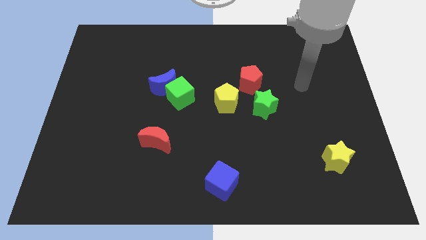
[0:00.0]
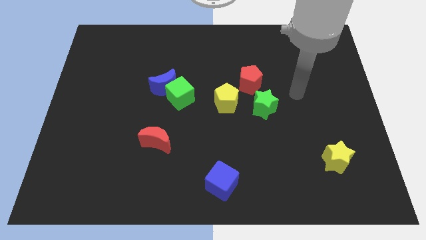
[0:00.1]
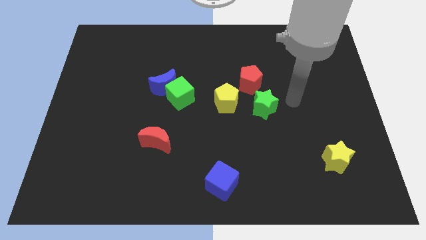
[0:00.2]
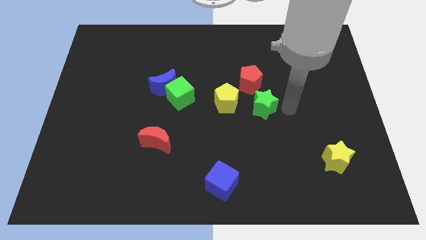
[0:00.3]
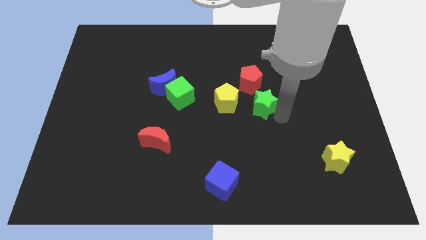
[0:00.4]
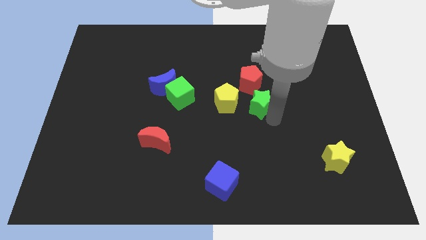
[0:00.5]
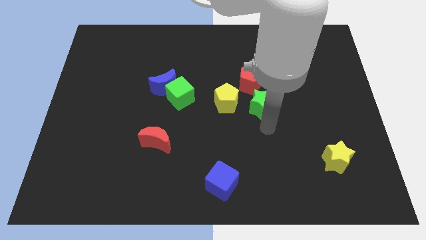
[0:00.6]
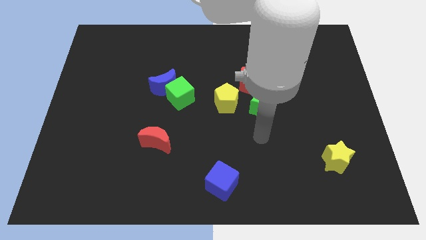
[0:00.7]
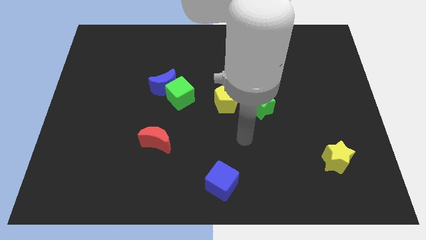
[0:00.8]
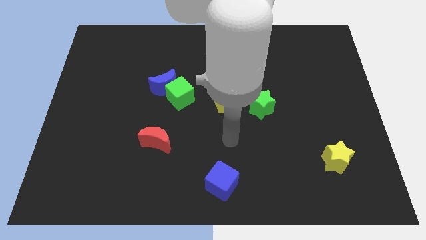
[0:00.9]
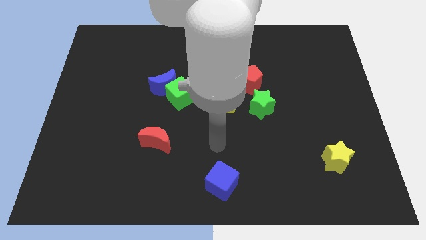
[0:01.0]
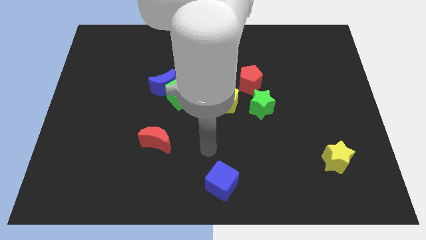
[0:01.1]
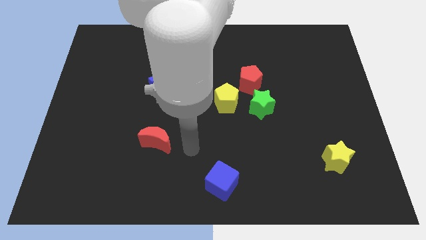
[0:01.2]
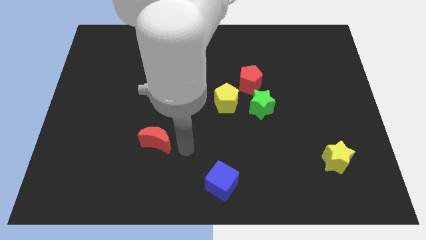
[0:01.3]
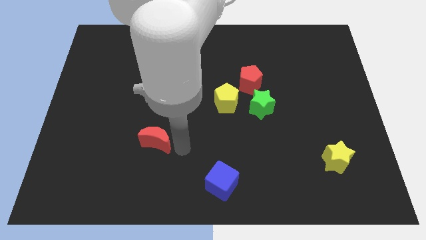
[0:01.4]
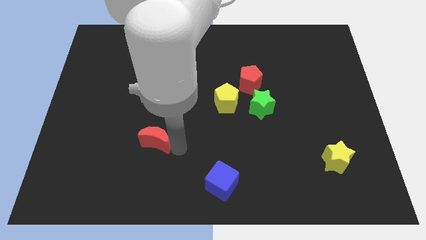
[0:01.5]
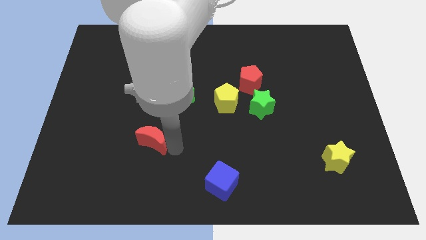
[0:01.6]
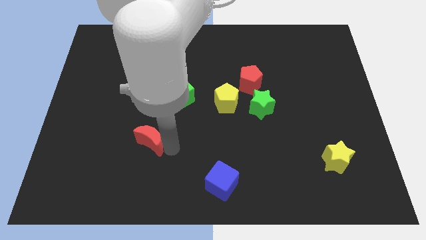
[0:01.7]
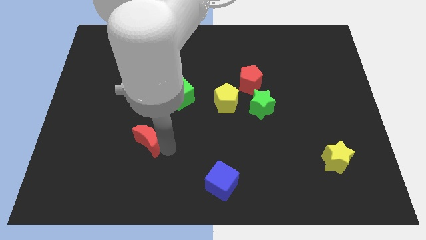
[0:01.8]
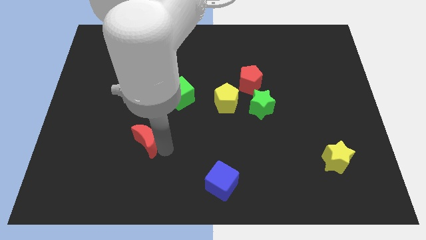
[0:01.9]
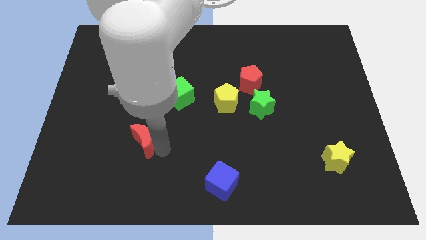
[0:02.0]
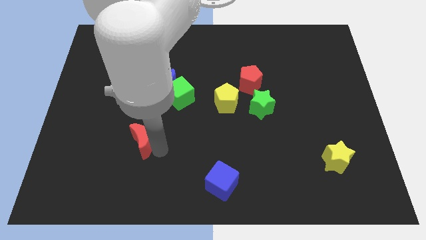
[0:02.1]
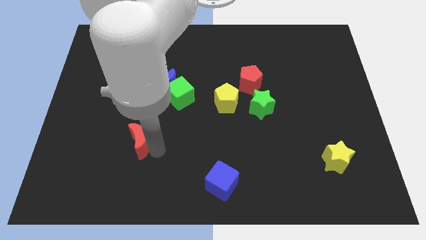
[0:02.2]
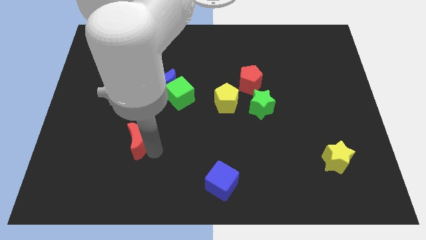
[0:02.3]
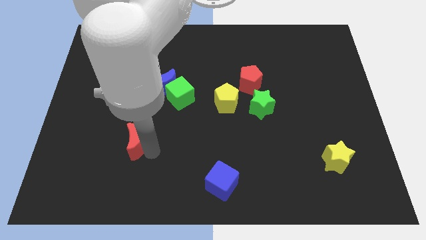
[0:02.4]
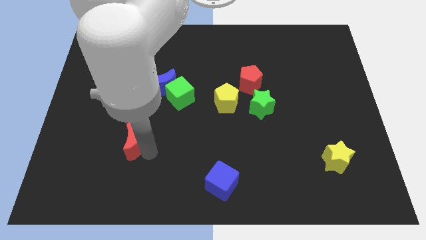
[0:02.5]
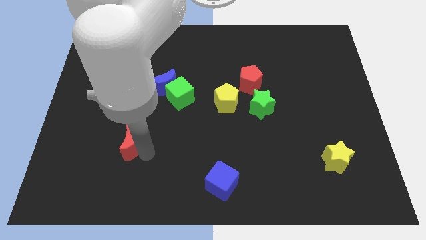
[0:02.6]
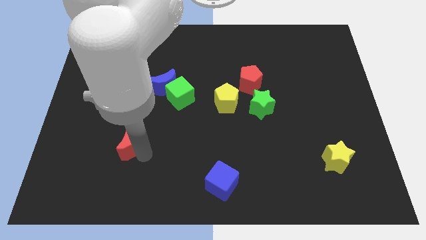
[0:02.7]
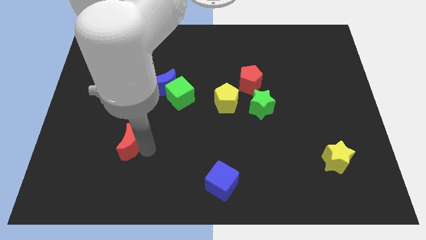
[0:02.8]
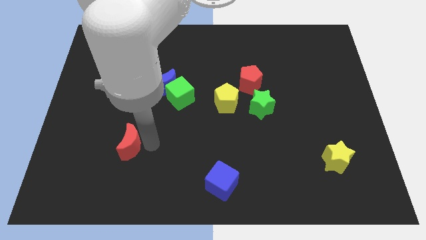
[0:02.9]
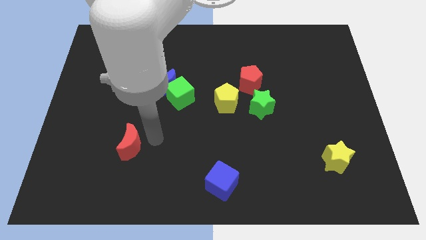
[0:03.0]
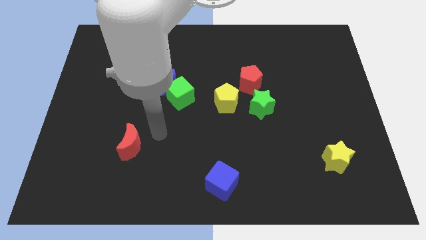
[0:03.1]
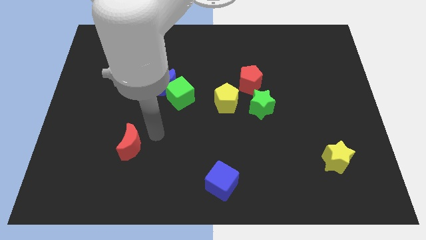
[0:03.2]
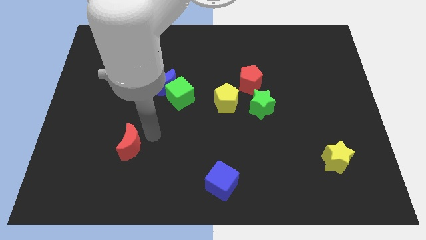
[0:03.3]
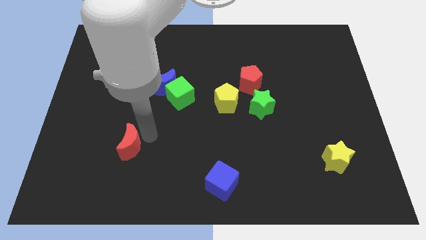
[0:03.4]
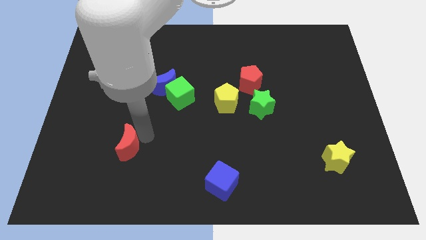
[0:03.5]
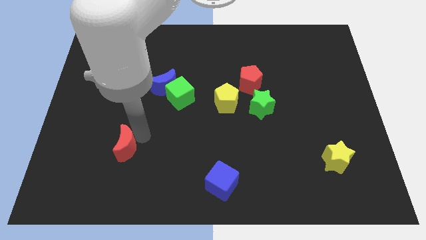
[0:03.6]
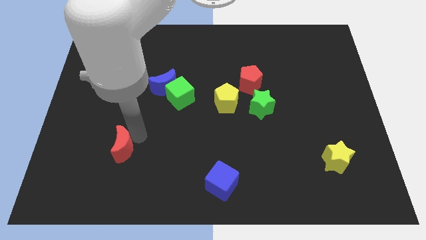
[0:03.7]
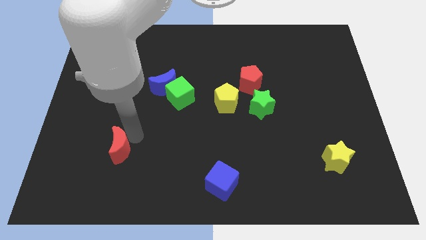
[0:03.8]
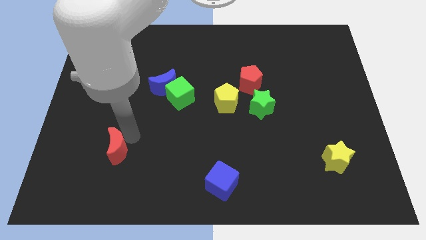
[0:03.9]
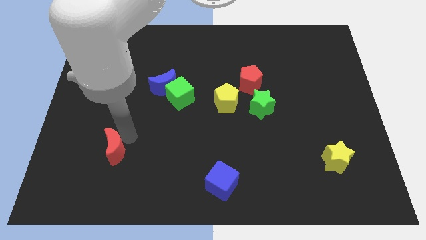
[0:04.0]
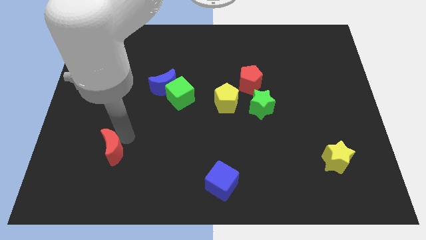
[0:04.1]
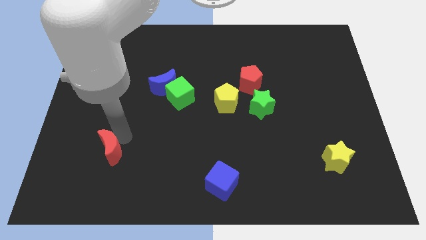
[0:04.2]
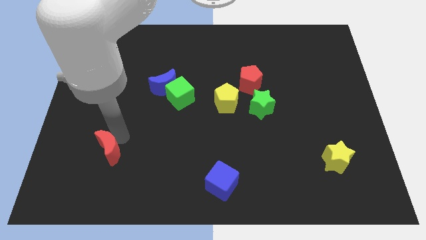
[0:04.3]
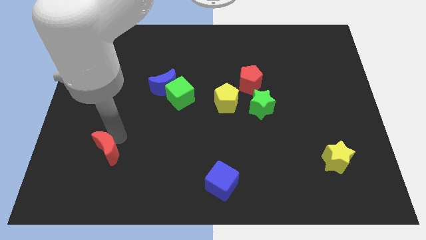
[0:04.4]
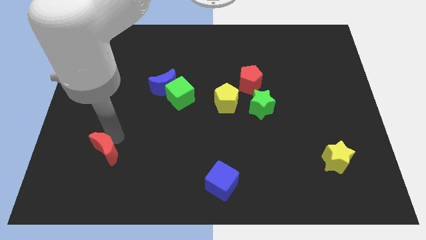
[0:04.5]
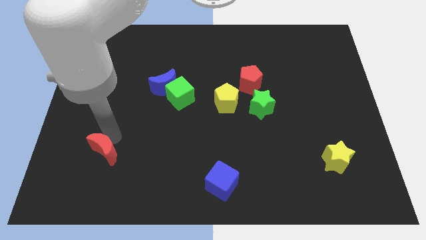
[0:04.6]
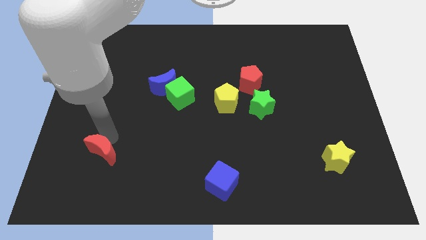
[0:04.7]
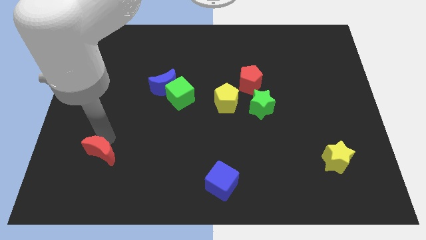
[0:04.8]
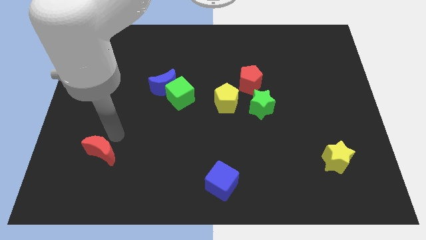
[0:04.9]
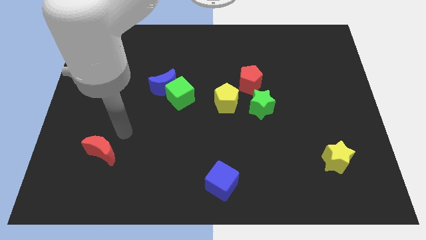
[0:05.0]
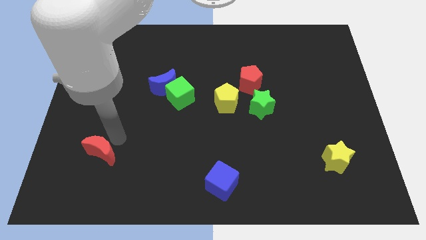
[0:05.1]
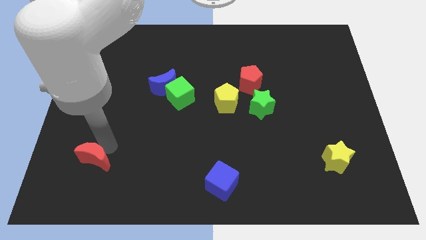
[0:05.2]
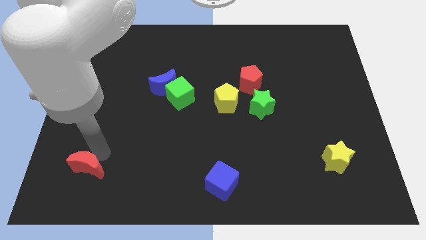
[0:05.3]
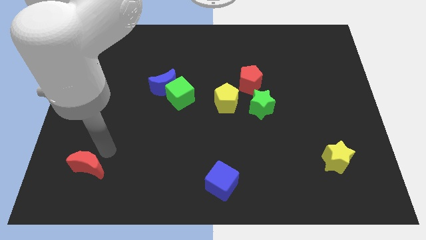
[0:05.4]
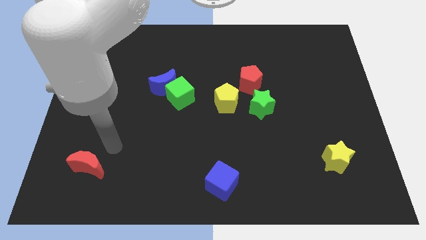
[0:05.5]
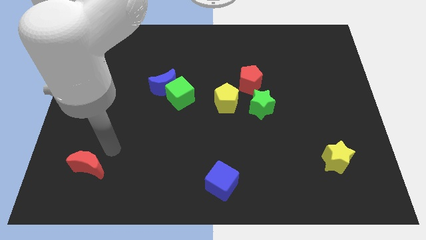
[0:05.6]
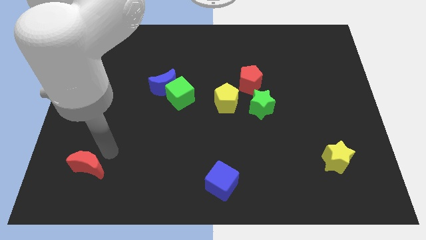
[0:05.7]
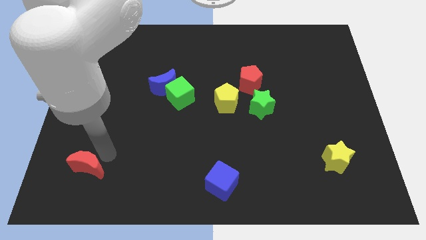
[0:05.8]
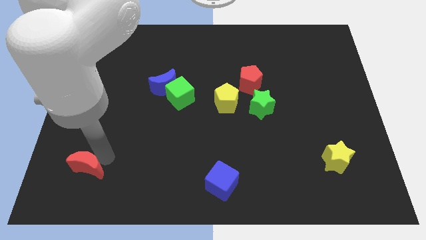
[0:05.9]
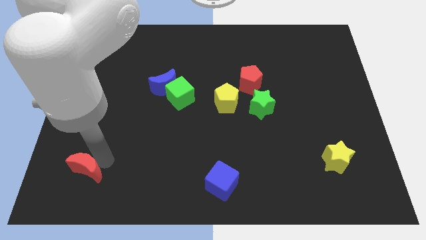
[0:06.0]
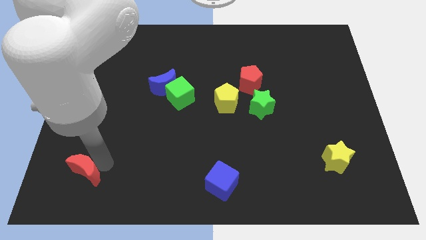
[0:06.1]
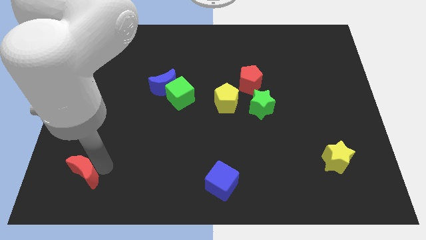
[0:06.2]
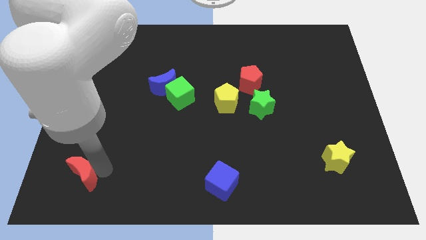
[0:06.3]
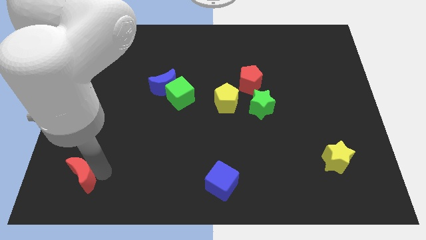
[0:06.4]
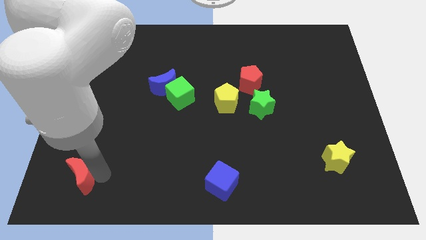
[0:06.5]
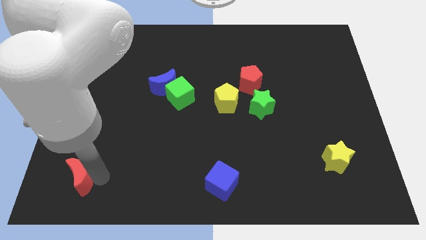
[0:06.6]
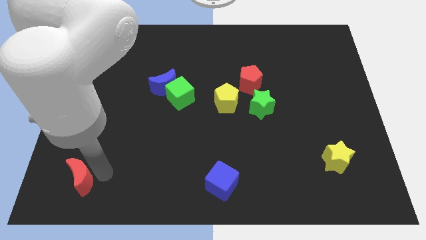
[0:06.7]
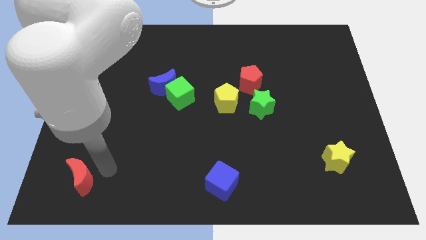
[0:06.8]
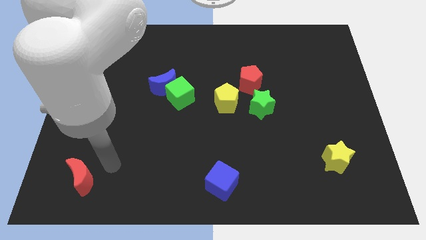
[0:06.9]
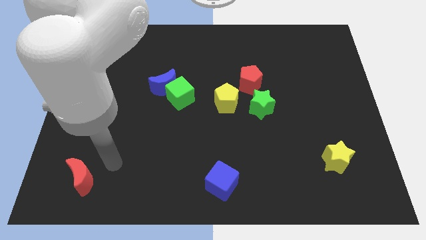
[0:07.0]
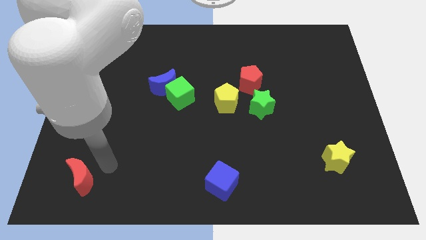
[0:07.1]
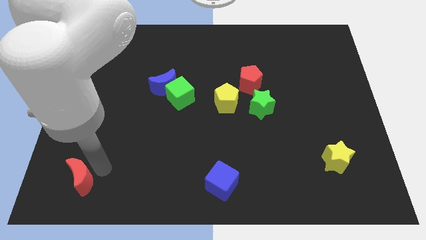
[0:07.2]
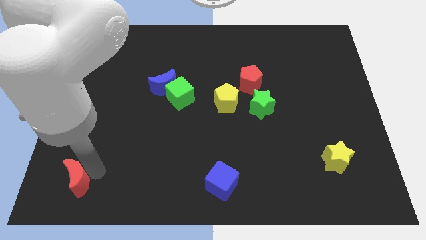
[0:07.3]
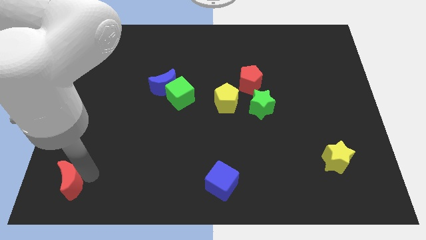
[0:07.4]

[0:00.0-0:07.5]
push the red moon to the lower left corner
